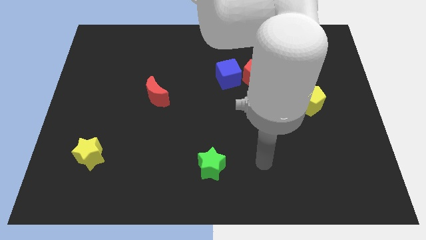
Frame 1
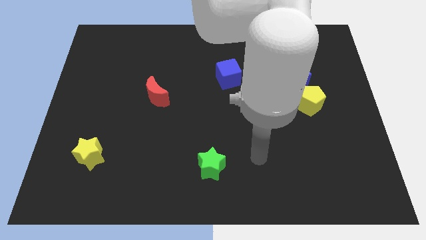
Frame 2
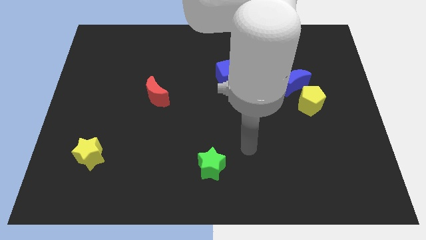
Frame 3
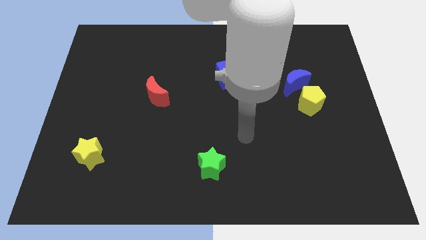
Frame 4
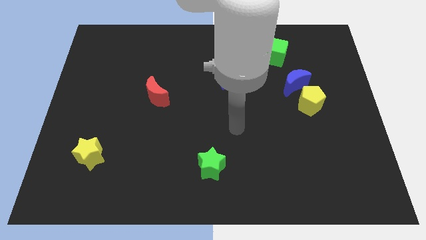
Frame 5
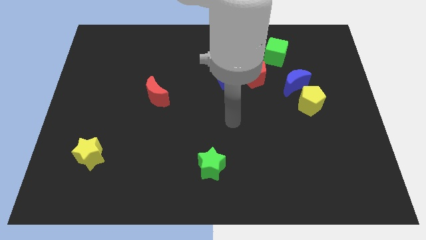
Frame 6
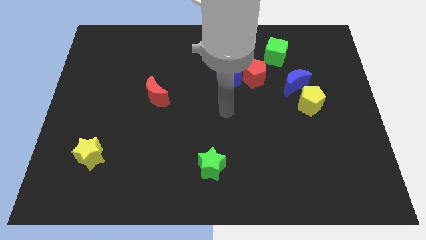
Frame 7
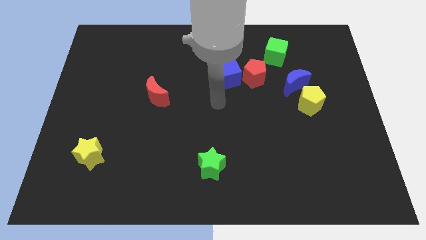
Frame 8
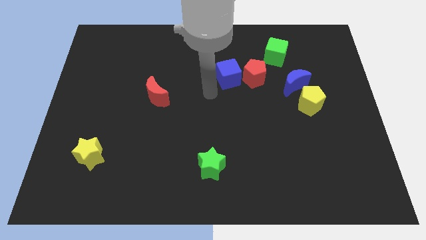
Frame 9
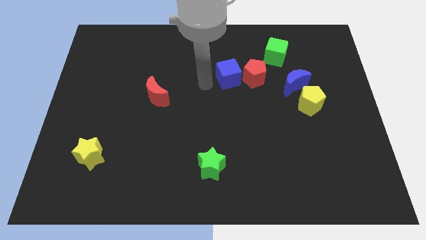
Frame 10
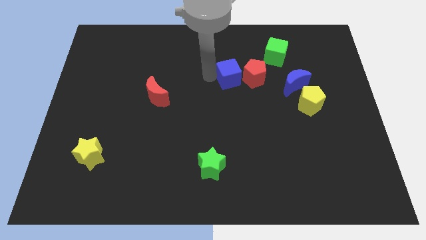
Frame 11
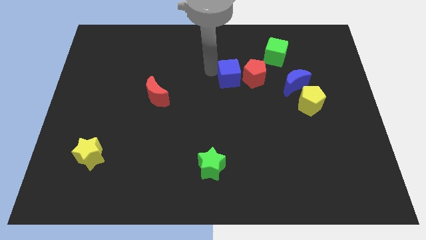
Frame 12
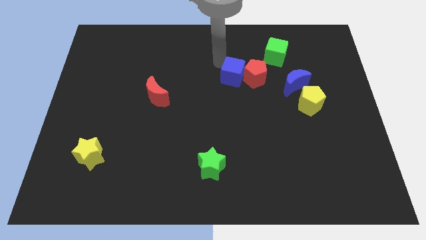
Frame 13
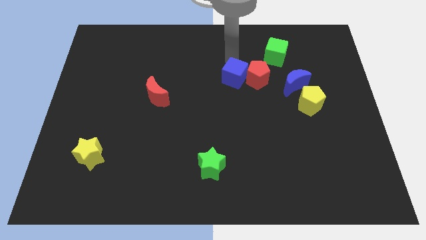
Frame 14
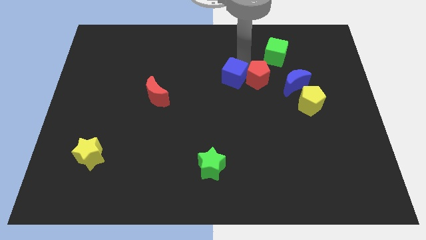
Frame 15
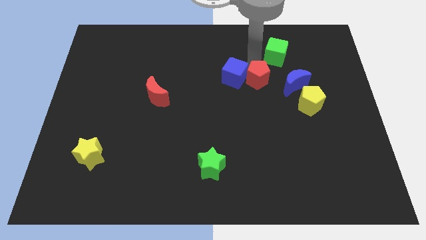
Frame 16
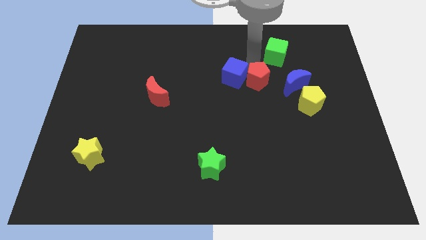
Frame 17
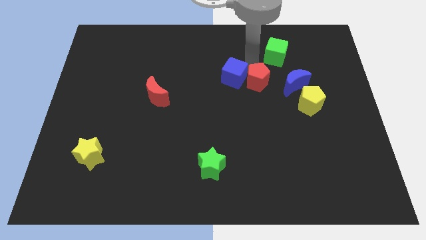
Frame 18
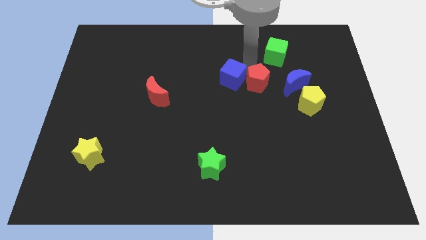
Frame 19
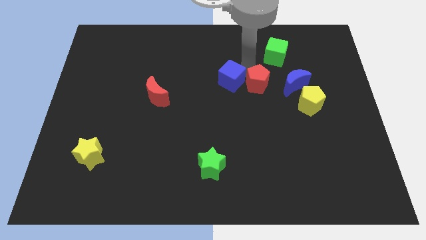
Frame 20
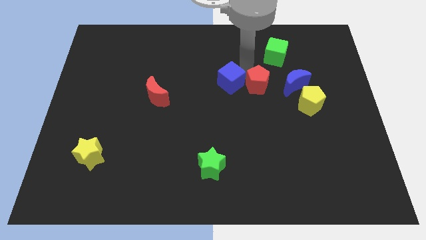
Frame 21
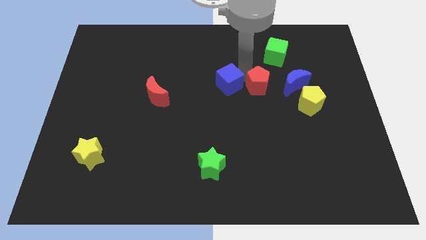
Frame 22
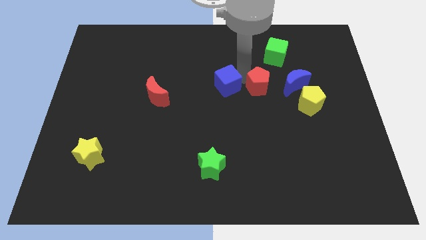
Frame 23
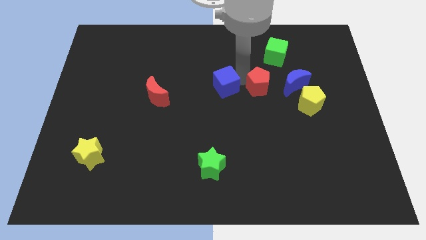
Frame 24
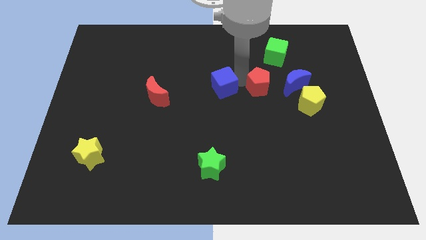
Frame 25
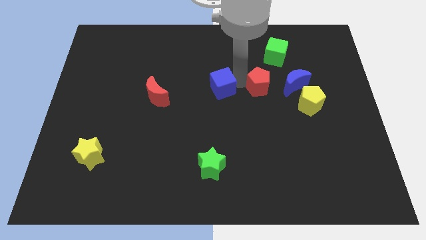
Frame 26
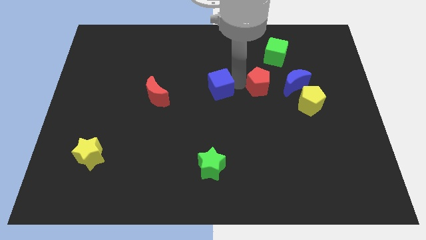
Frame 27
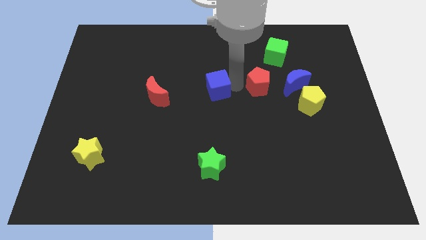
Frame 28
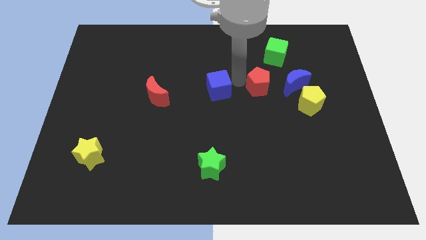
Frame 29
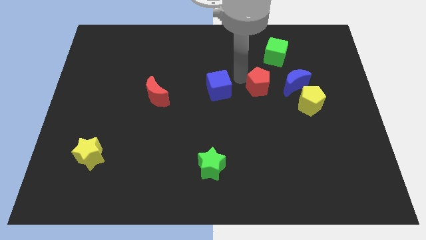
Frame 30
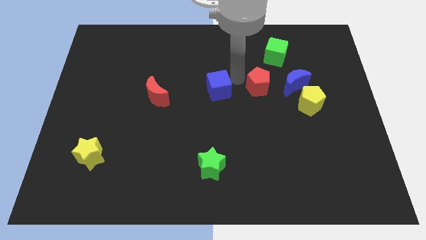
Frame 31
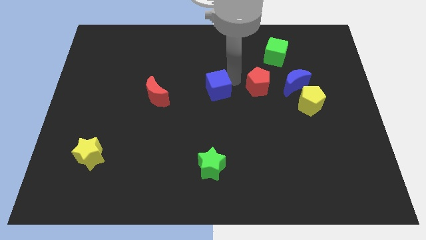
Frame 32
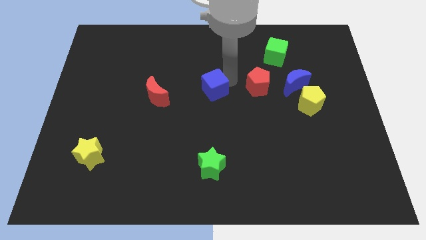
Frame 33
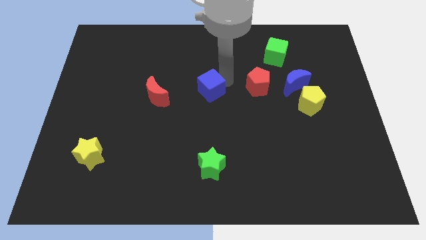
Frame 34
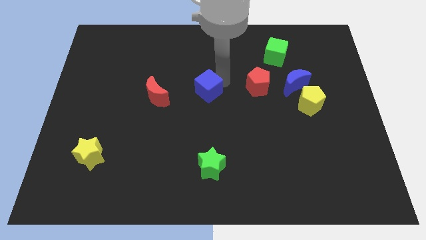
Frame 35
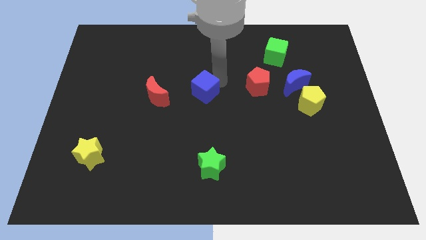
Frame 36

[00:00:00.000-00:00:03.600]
push the blue cube a little bit downwards and then left

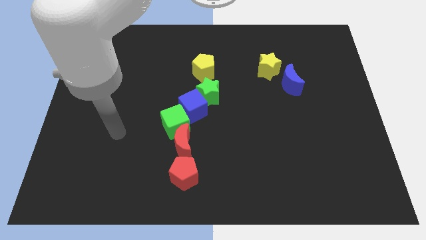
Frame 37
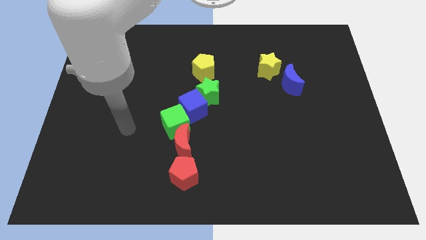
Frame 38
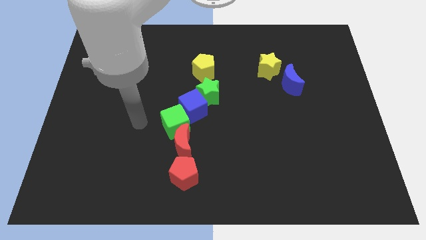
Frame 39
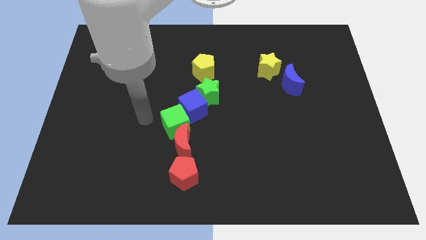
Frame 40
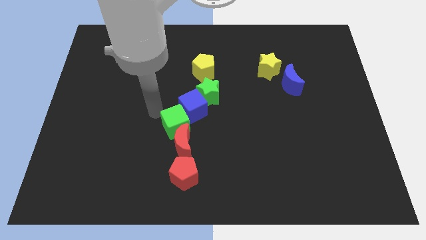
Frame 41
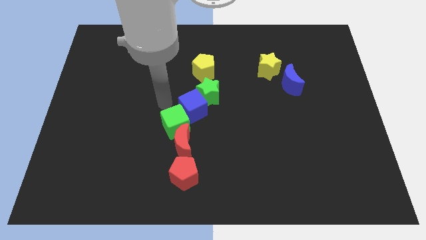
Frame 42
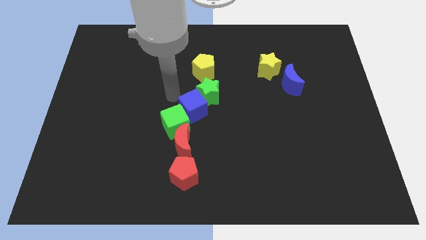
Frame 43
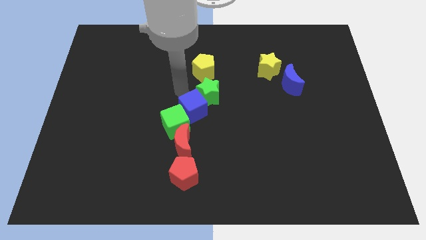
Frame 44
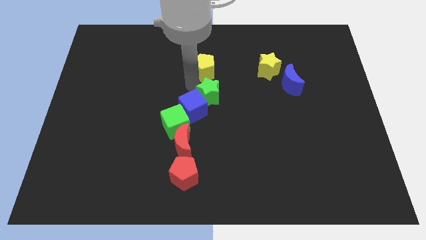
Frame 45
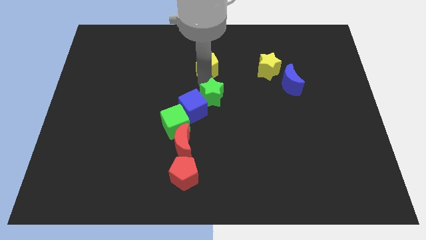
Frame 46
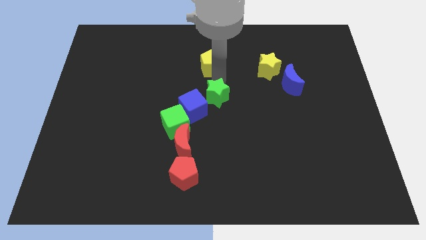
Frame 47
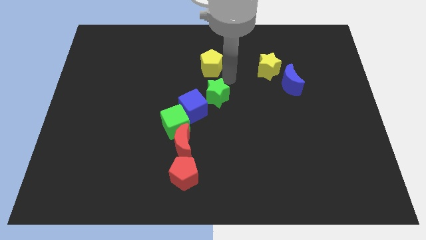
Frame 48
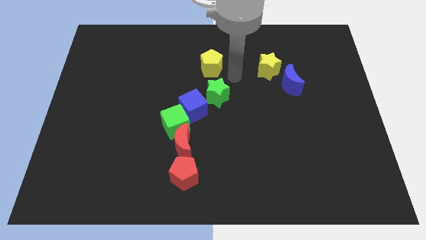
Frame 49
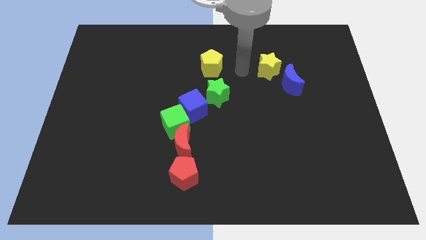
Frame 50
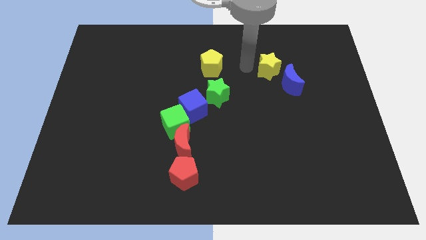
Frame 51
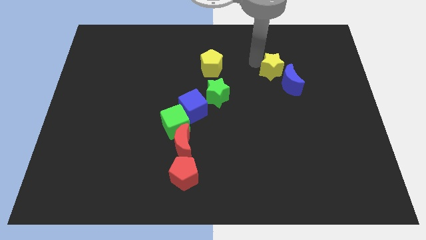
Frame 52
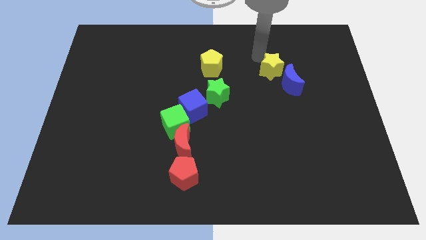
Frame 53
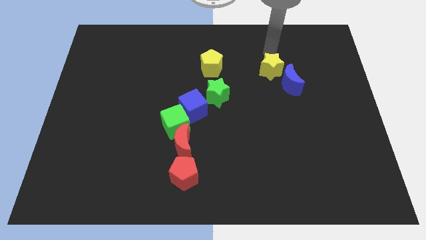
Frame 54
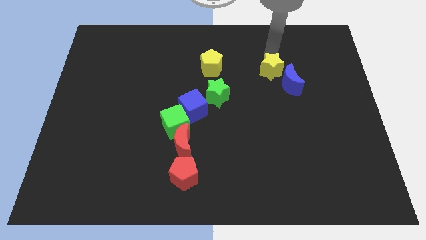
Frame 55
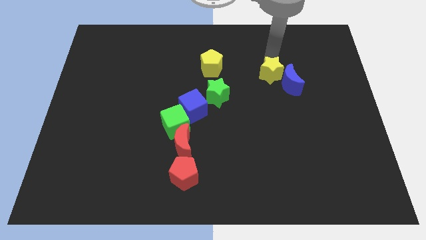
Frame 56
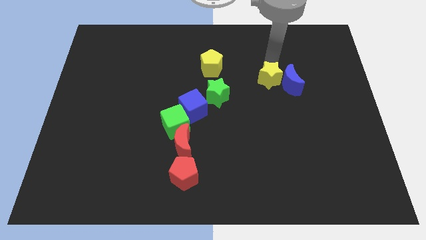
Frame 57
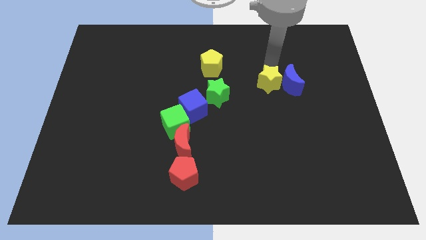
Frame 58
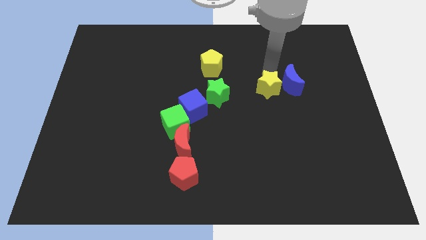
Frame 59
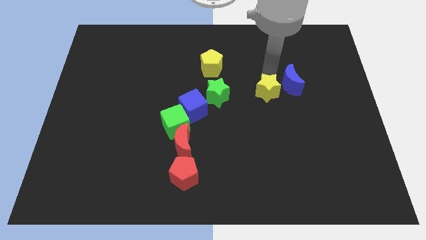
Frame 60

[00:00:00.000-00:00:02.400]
slide the yellow star down a little bit

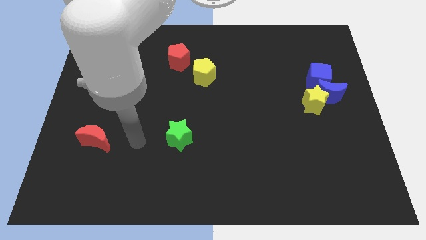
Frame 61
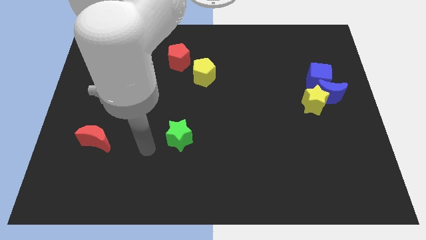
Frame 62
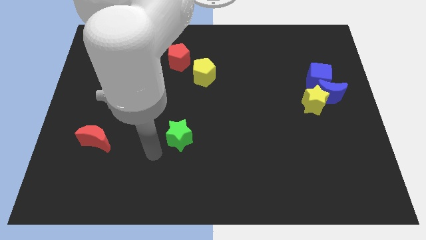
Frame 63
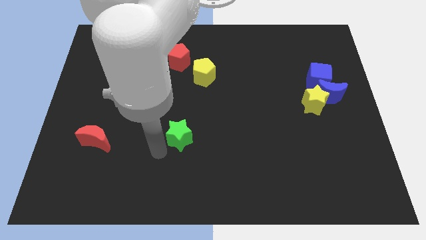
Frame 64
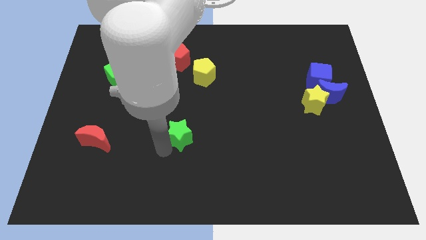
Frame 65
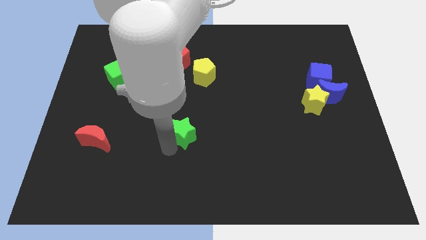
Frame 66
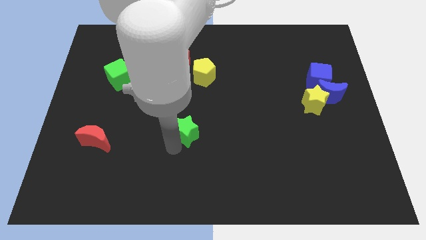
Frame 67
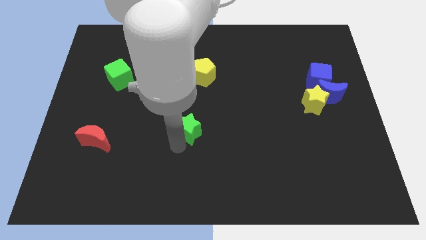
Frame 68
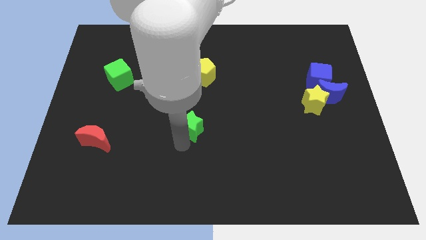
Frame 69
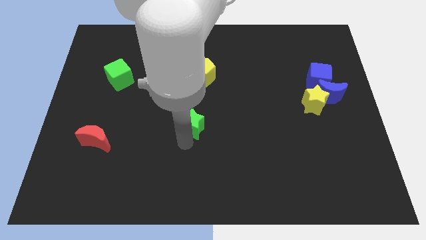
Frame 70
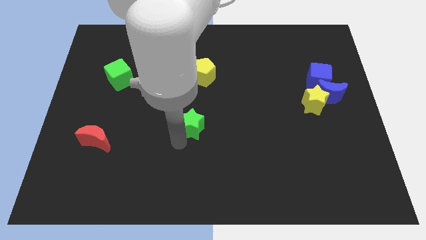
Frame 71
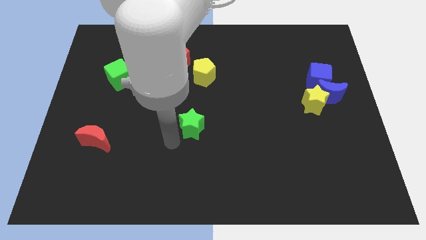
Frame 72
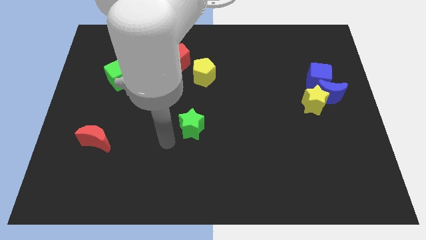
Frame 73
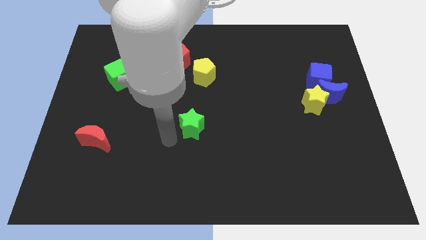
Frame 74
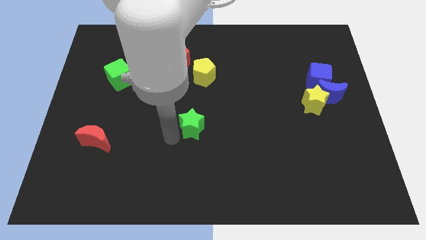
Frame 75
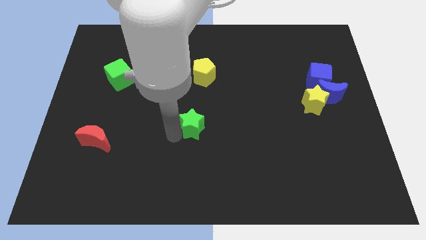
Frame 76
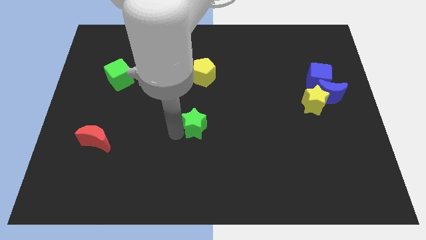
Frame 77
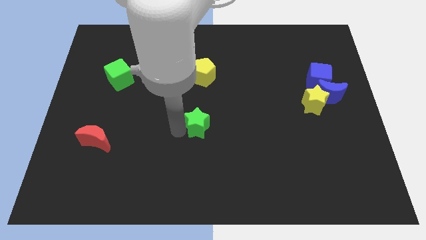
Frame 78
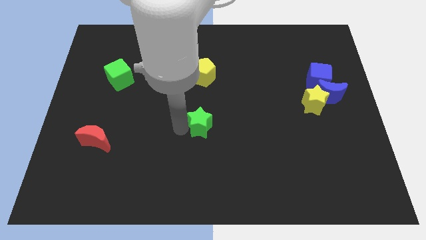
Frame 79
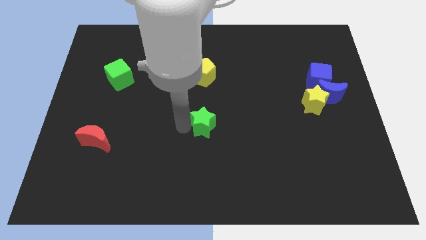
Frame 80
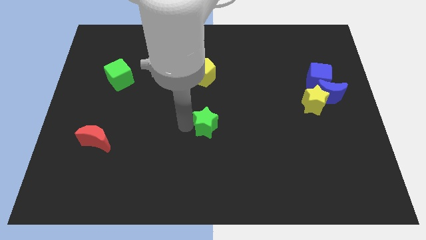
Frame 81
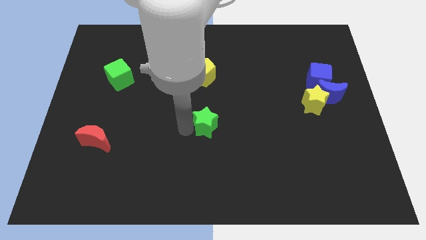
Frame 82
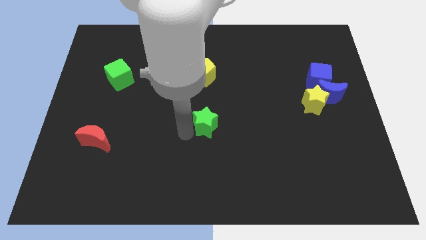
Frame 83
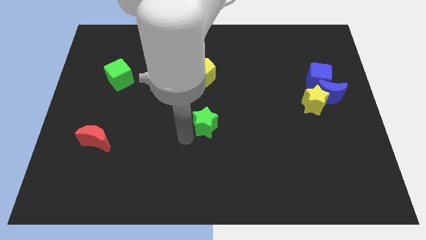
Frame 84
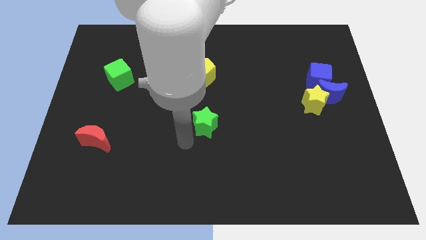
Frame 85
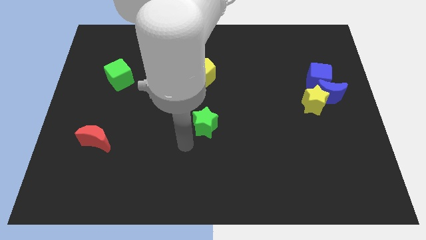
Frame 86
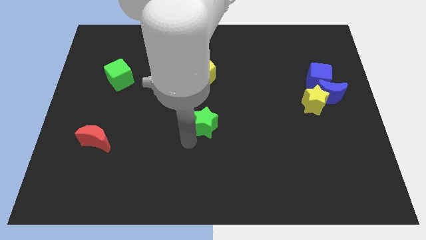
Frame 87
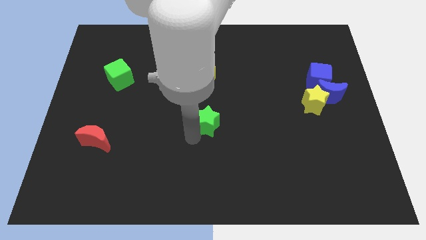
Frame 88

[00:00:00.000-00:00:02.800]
move the green star upwards and then right a little
